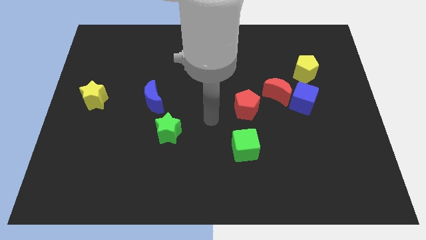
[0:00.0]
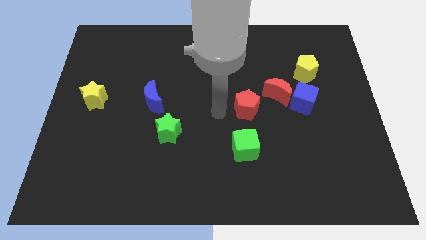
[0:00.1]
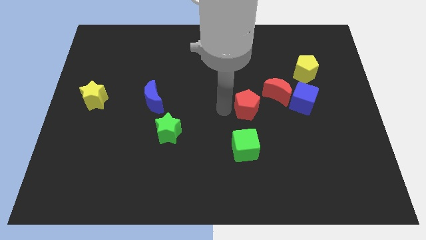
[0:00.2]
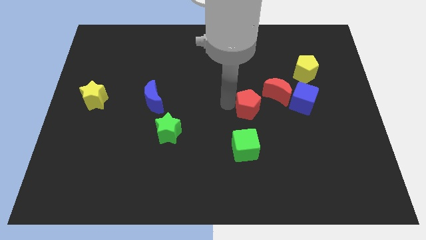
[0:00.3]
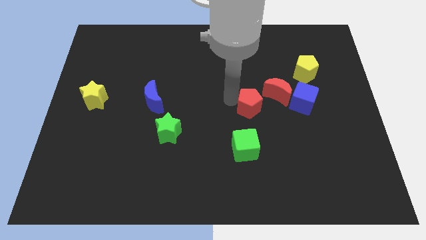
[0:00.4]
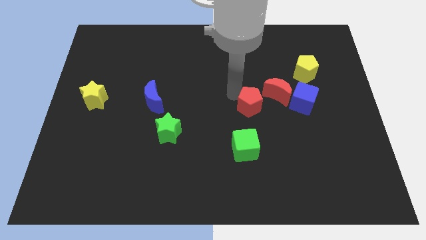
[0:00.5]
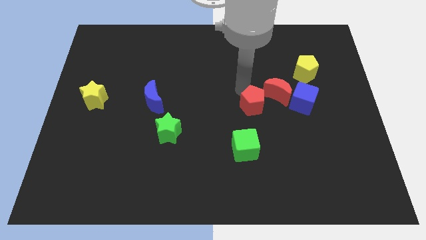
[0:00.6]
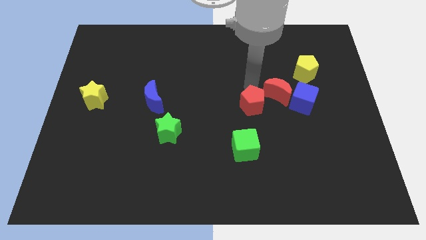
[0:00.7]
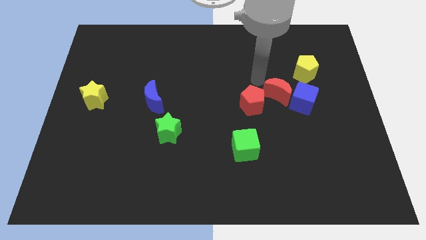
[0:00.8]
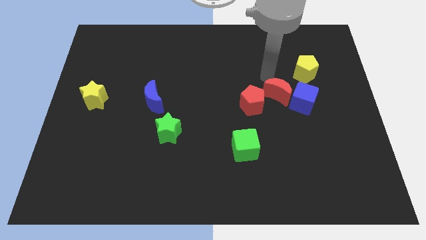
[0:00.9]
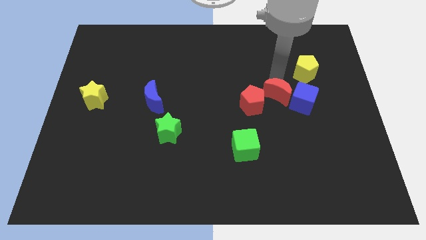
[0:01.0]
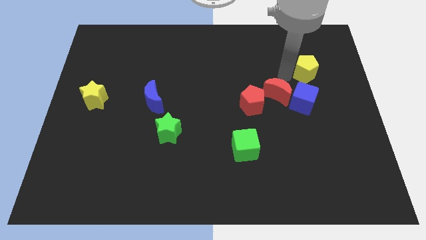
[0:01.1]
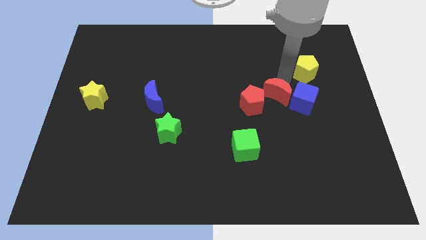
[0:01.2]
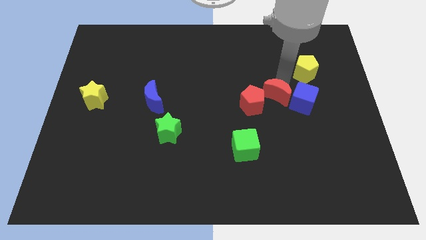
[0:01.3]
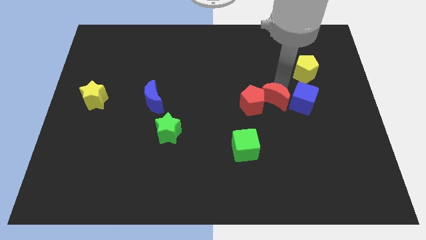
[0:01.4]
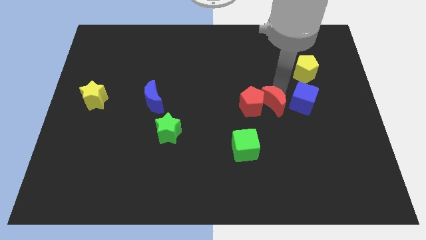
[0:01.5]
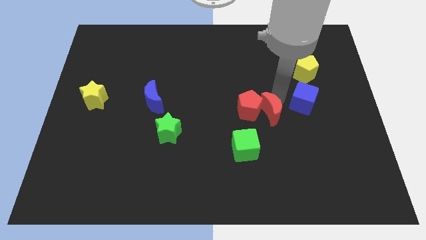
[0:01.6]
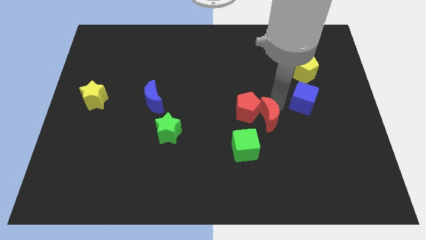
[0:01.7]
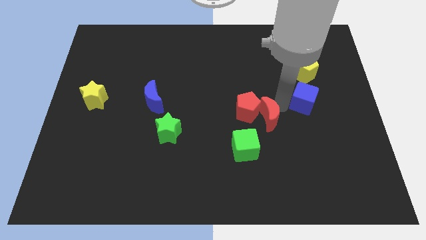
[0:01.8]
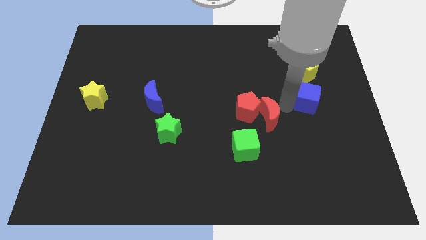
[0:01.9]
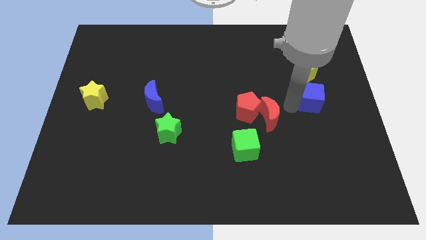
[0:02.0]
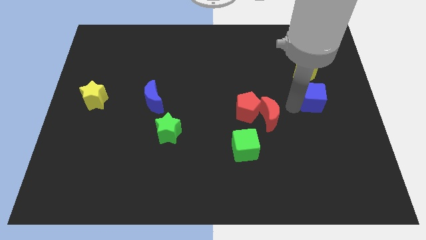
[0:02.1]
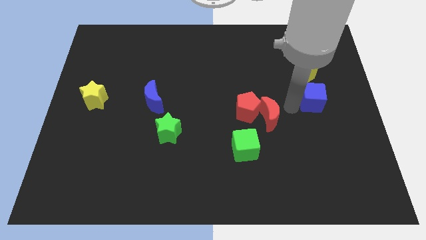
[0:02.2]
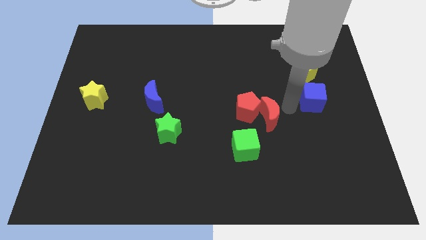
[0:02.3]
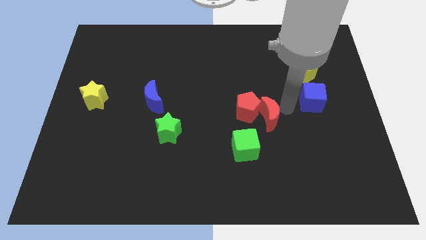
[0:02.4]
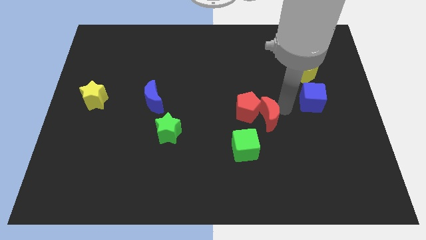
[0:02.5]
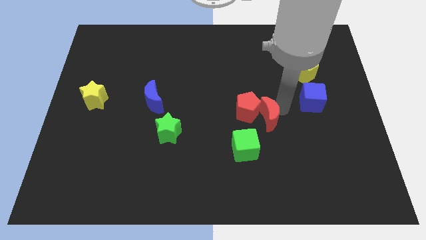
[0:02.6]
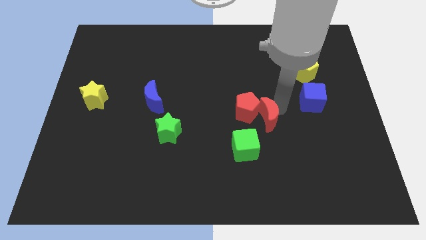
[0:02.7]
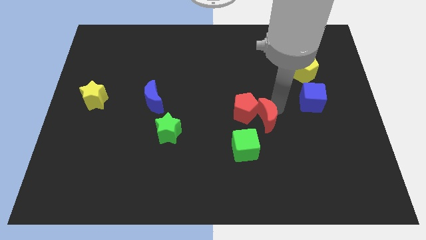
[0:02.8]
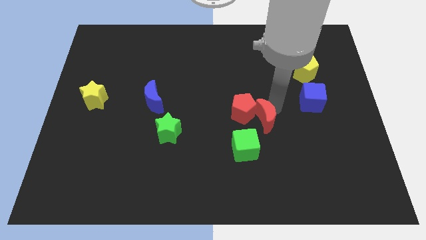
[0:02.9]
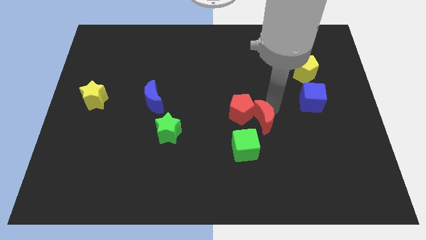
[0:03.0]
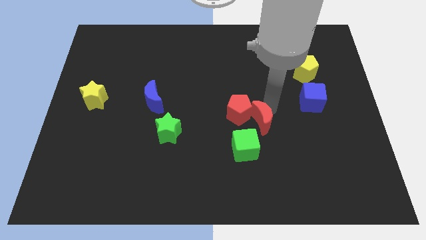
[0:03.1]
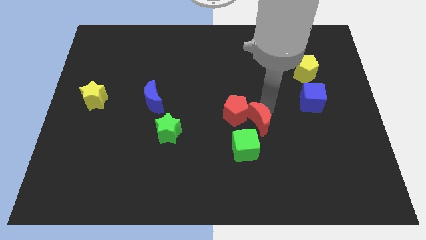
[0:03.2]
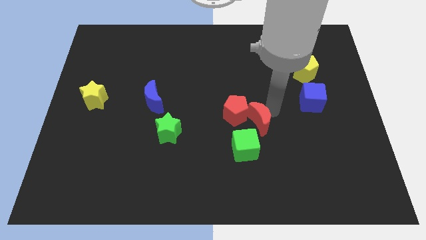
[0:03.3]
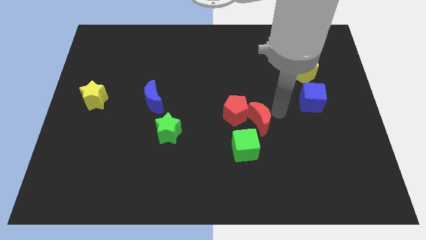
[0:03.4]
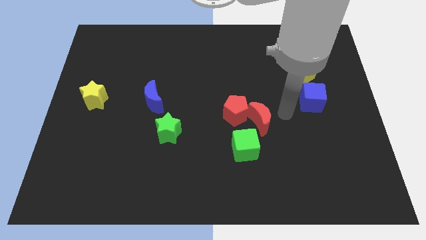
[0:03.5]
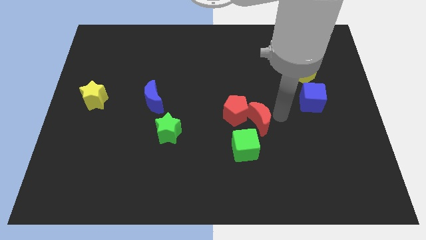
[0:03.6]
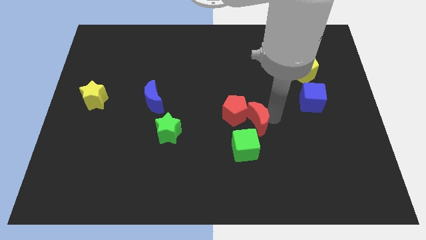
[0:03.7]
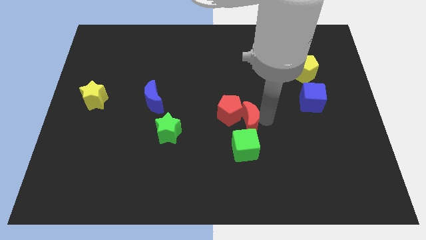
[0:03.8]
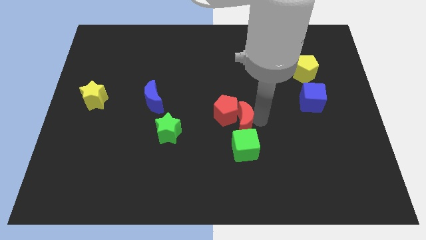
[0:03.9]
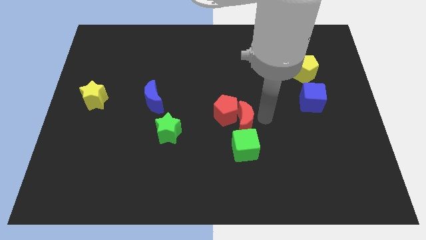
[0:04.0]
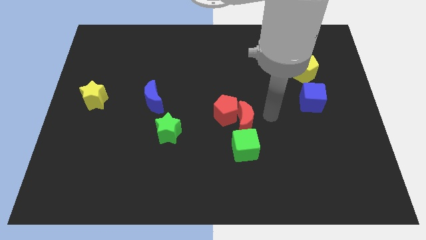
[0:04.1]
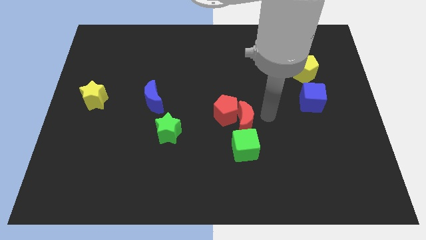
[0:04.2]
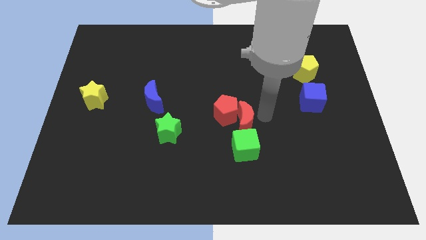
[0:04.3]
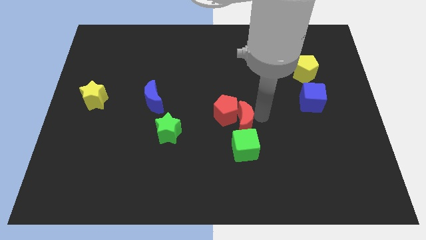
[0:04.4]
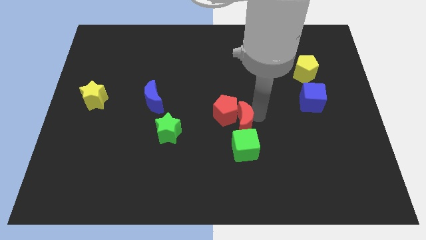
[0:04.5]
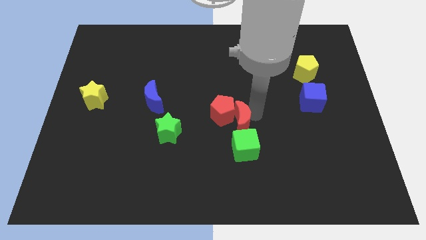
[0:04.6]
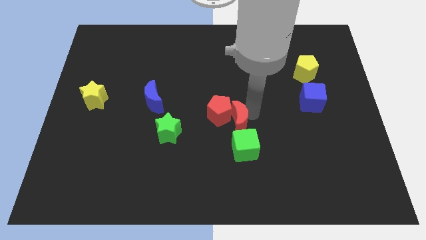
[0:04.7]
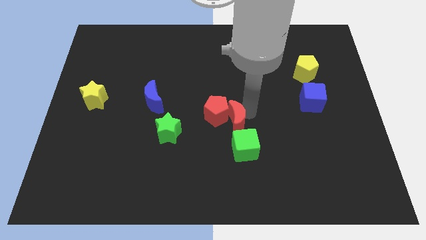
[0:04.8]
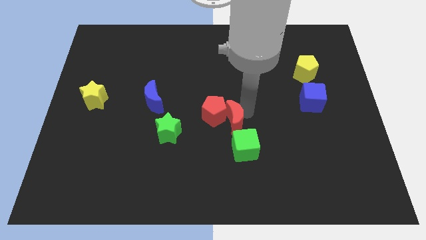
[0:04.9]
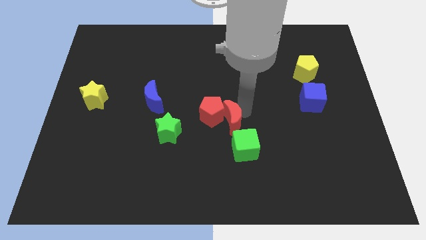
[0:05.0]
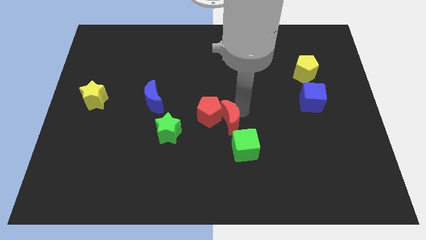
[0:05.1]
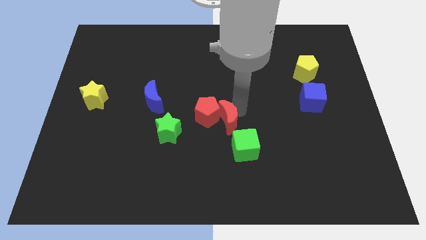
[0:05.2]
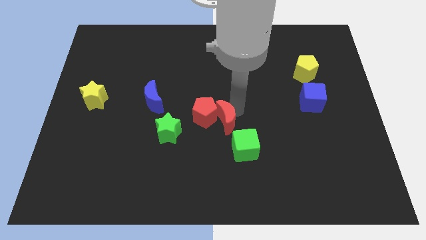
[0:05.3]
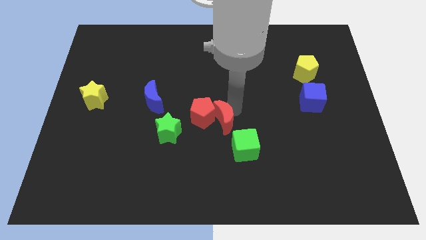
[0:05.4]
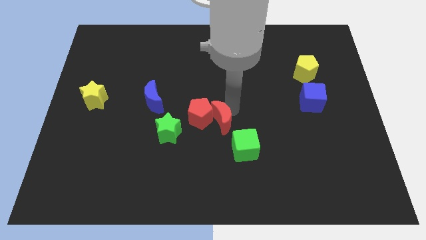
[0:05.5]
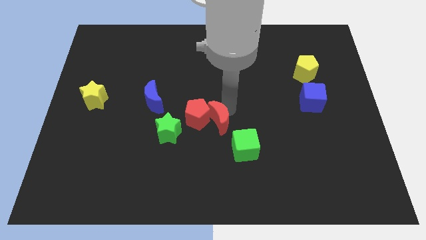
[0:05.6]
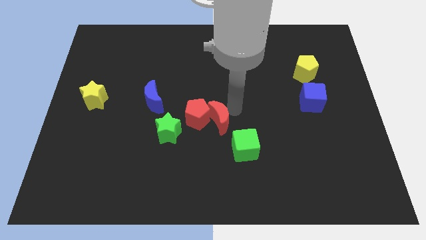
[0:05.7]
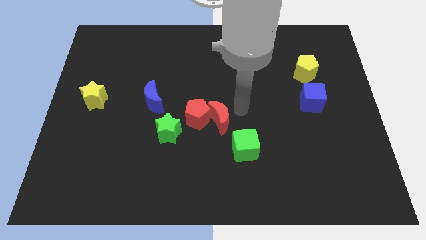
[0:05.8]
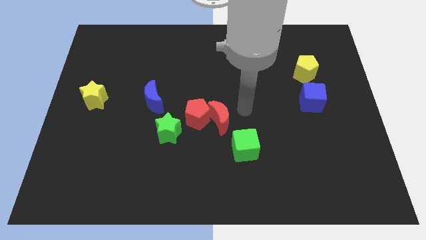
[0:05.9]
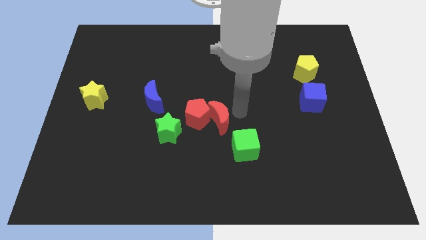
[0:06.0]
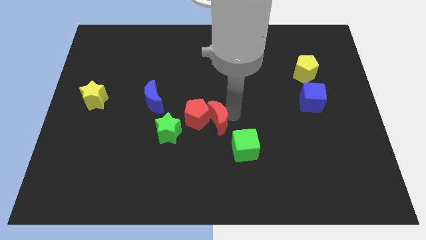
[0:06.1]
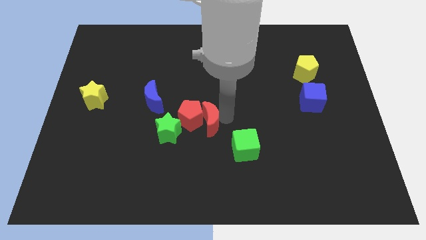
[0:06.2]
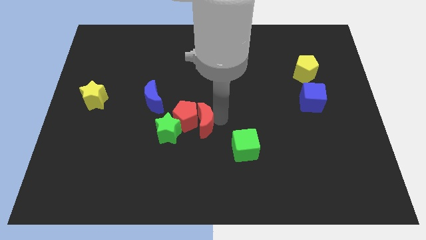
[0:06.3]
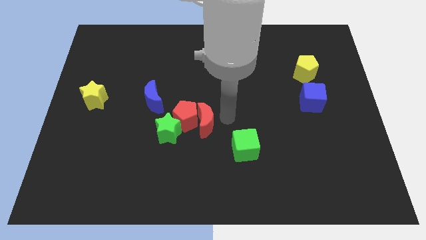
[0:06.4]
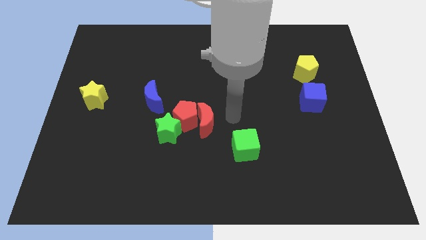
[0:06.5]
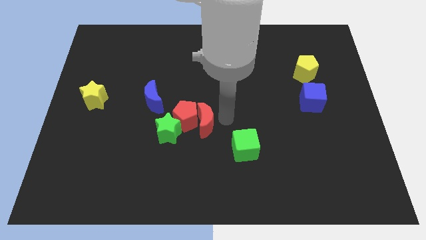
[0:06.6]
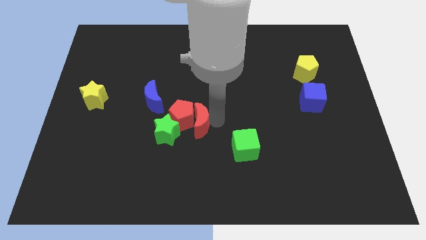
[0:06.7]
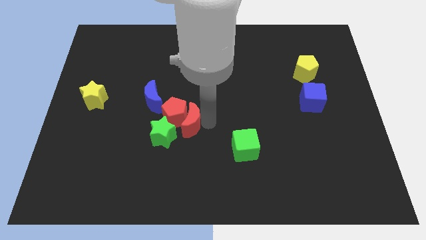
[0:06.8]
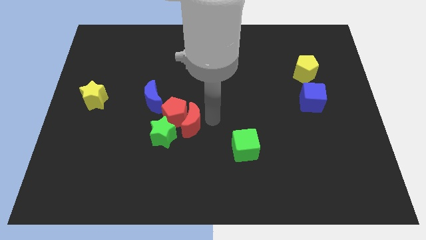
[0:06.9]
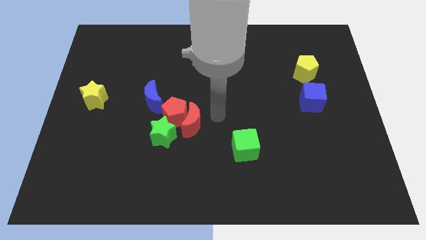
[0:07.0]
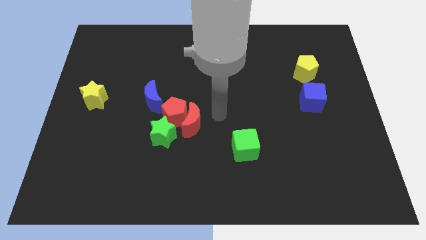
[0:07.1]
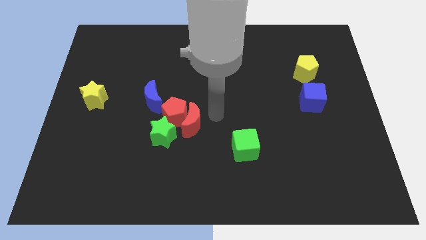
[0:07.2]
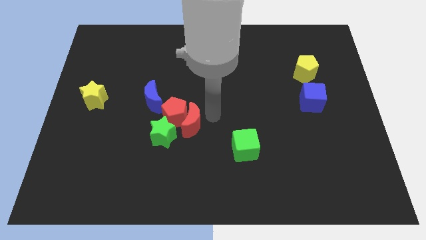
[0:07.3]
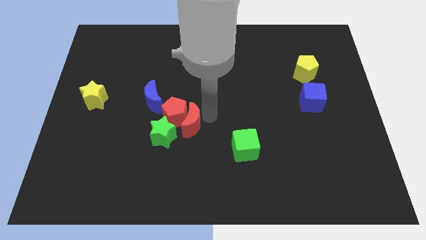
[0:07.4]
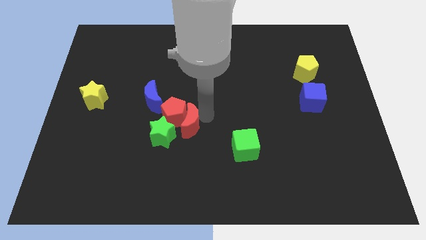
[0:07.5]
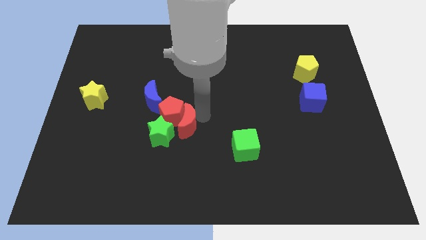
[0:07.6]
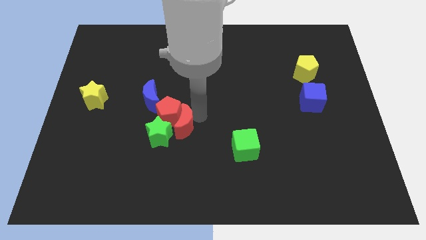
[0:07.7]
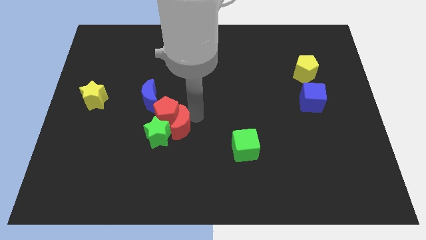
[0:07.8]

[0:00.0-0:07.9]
move the red moon to the green star
